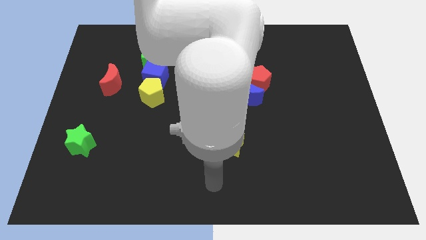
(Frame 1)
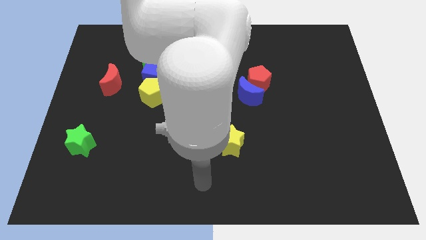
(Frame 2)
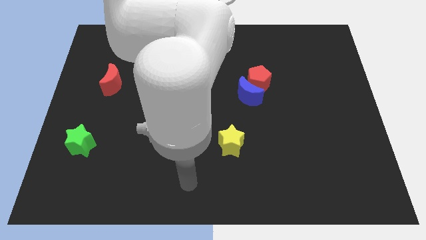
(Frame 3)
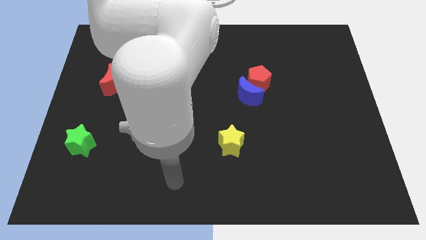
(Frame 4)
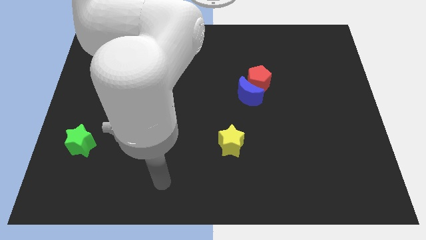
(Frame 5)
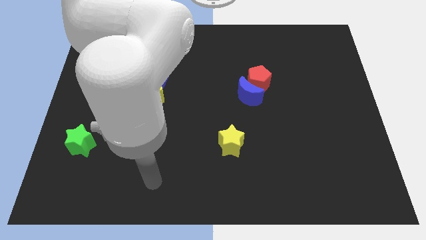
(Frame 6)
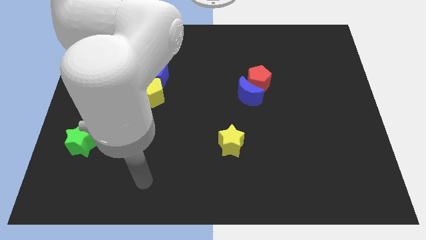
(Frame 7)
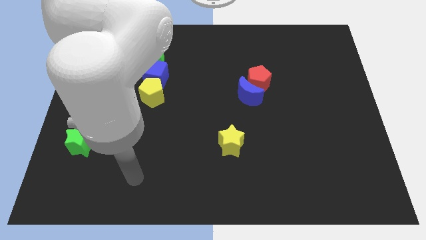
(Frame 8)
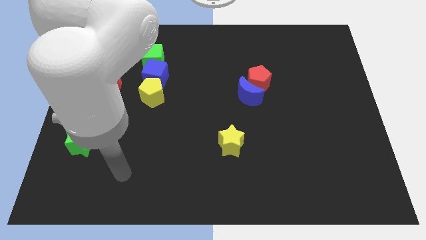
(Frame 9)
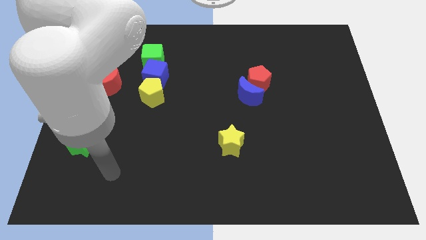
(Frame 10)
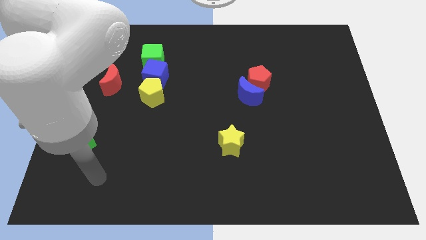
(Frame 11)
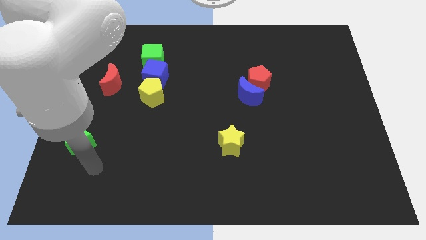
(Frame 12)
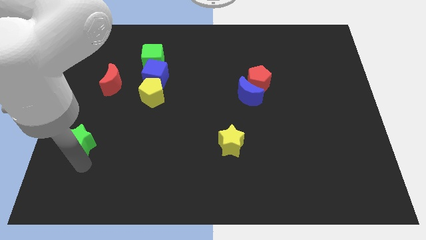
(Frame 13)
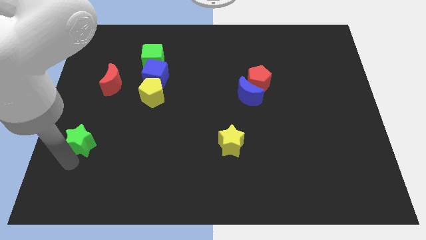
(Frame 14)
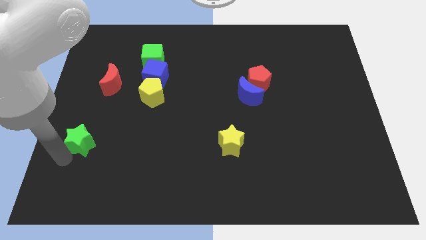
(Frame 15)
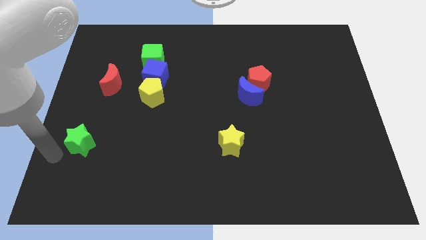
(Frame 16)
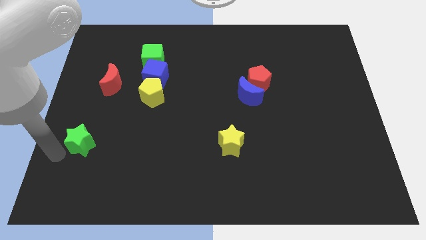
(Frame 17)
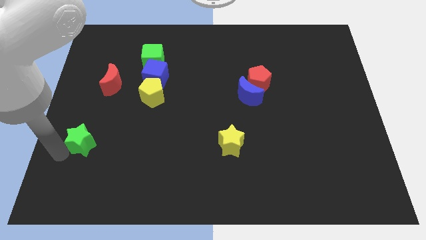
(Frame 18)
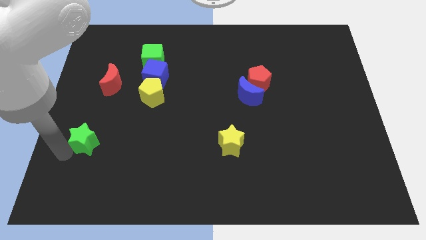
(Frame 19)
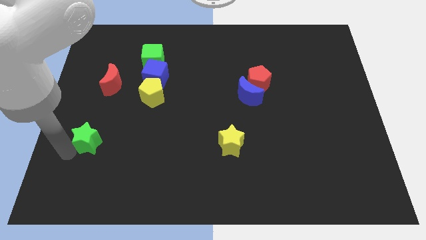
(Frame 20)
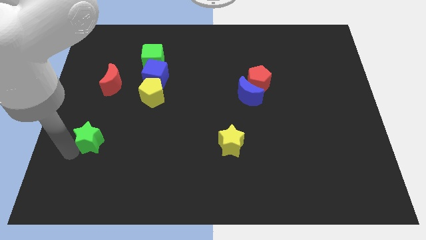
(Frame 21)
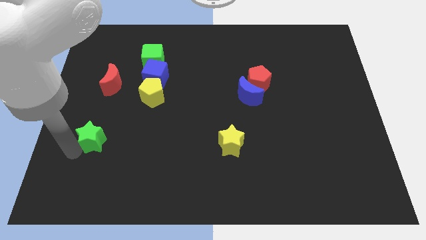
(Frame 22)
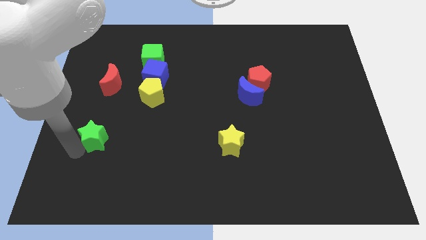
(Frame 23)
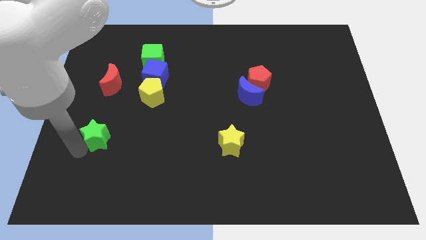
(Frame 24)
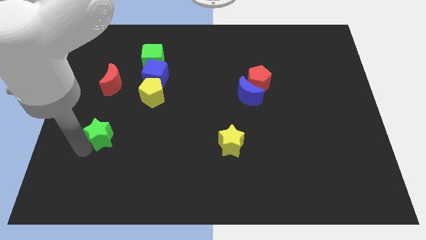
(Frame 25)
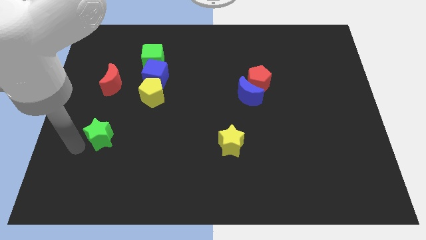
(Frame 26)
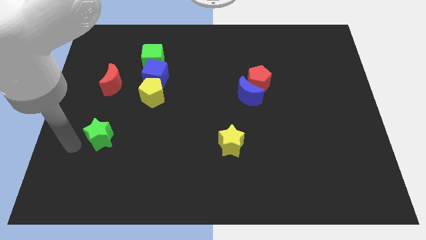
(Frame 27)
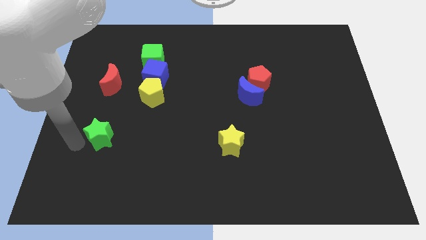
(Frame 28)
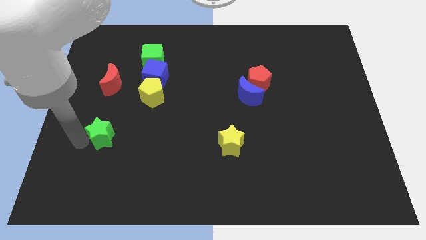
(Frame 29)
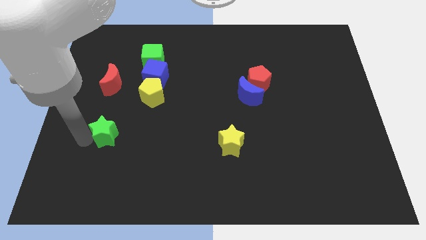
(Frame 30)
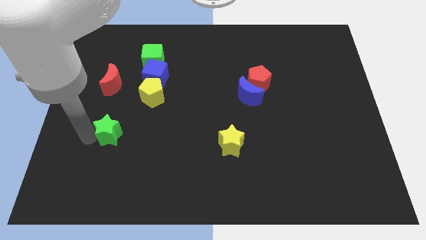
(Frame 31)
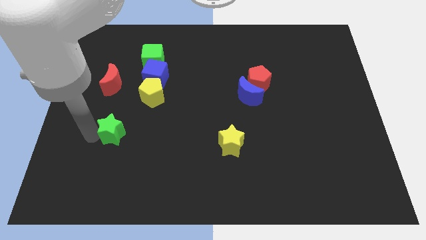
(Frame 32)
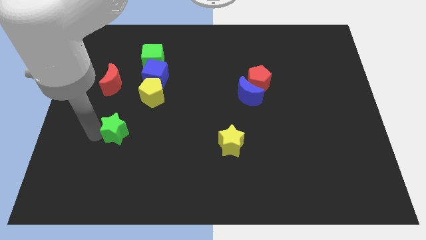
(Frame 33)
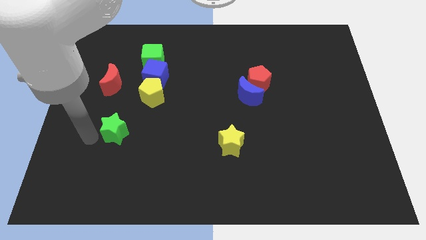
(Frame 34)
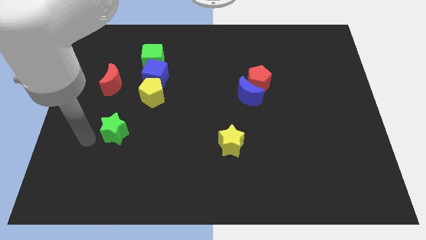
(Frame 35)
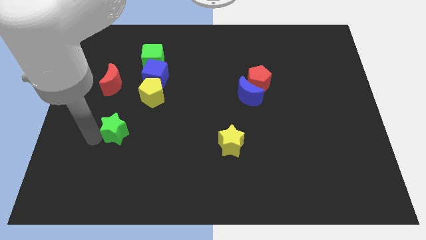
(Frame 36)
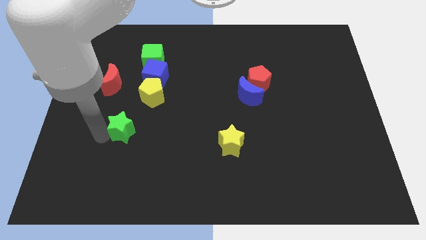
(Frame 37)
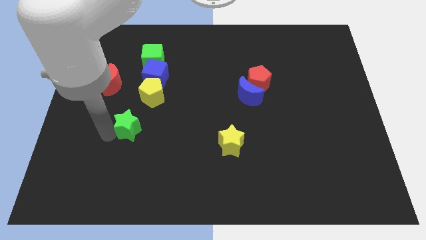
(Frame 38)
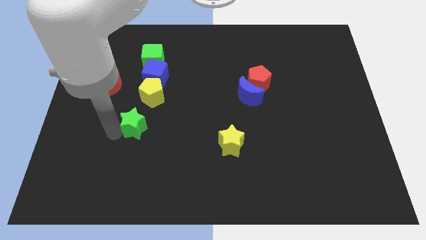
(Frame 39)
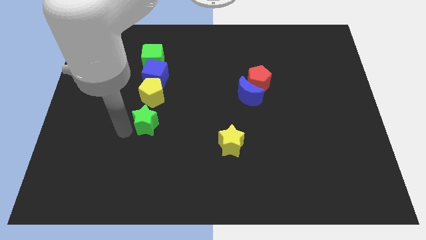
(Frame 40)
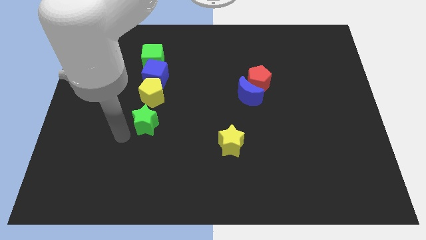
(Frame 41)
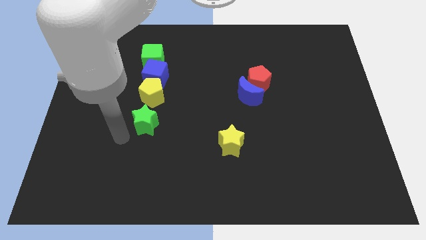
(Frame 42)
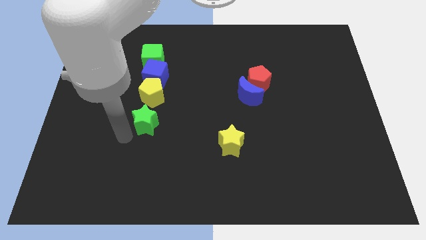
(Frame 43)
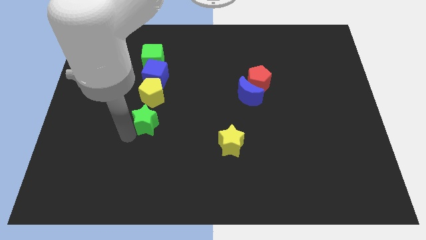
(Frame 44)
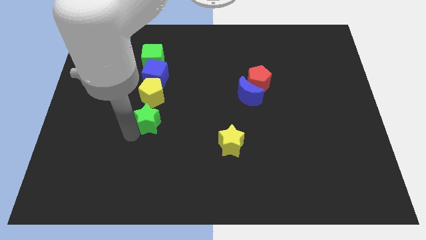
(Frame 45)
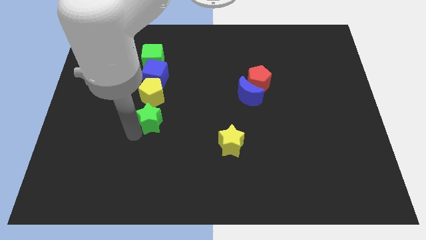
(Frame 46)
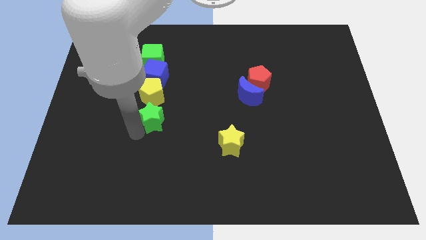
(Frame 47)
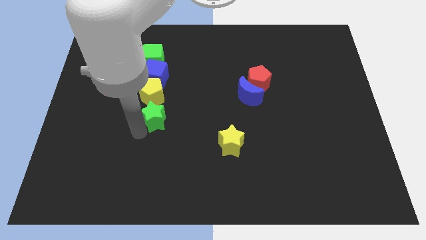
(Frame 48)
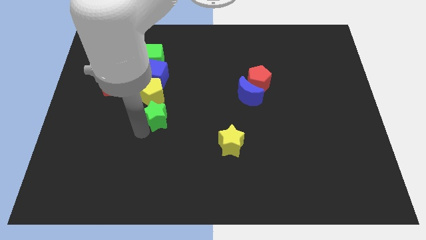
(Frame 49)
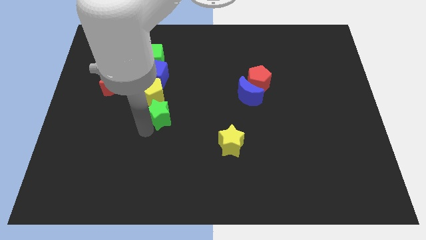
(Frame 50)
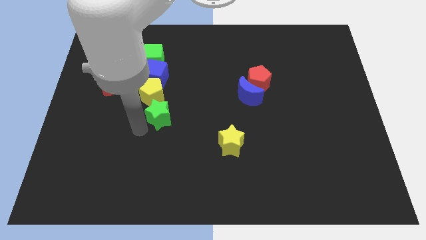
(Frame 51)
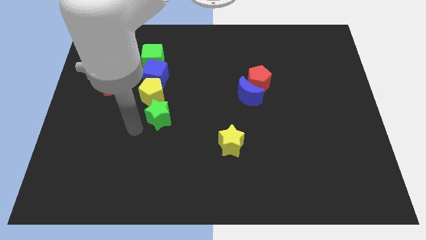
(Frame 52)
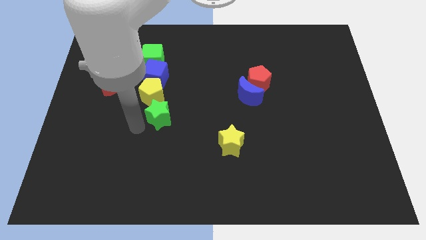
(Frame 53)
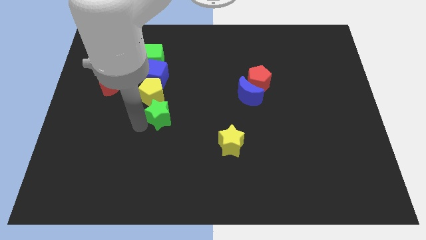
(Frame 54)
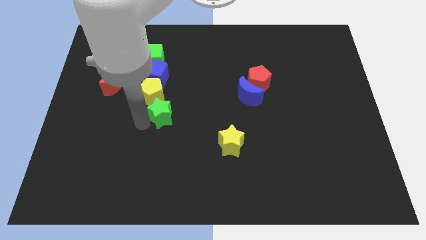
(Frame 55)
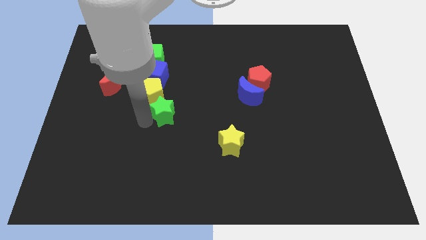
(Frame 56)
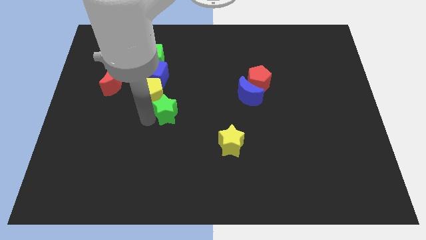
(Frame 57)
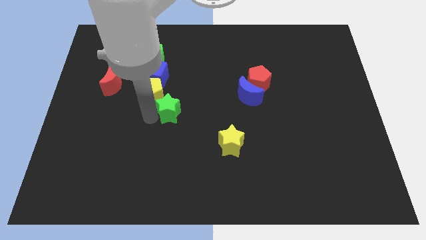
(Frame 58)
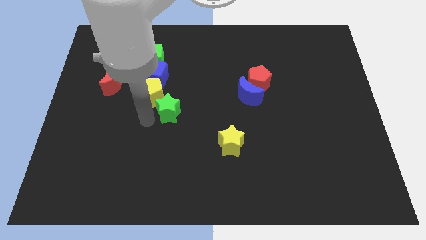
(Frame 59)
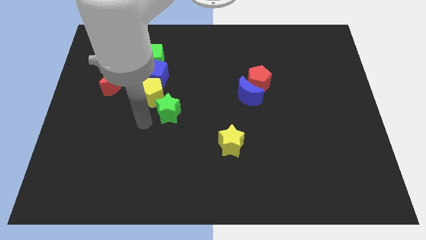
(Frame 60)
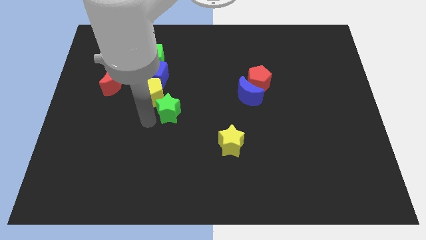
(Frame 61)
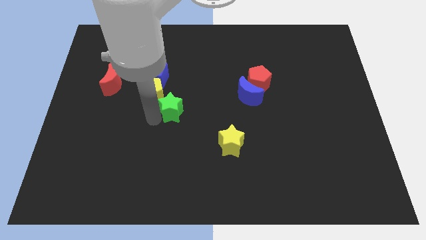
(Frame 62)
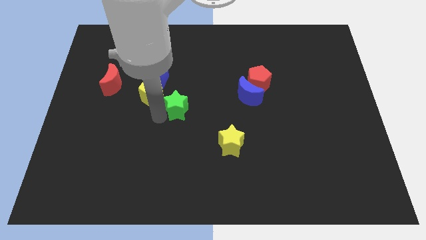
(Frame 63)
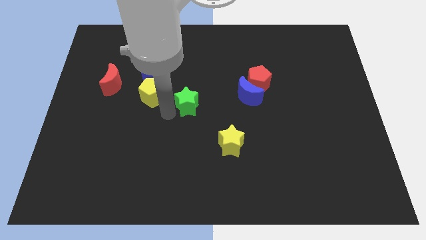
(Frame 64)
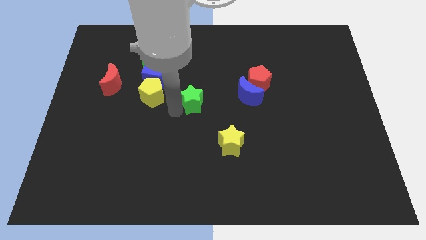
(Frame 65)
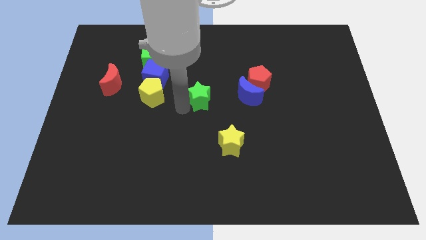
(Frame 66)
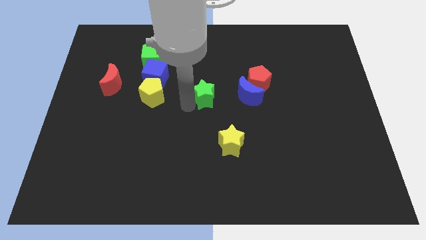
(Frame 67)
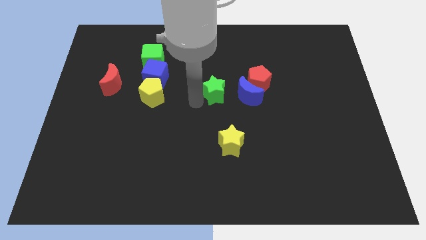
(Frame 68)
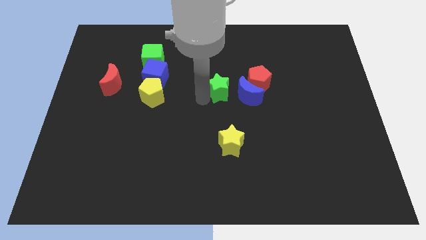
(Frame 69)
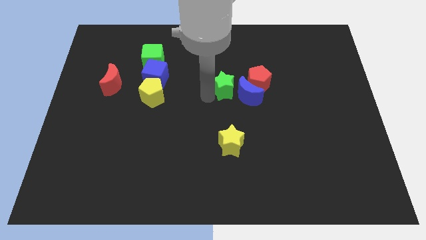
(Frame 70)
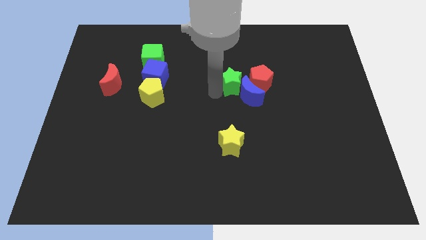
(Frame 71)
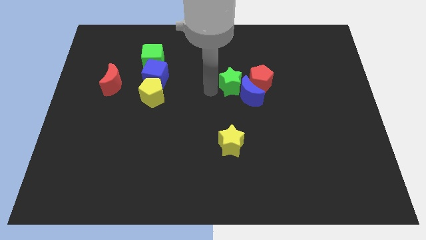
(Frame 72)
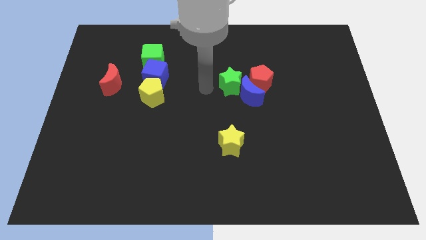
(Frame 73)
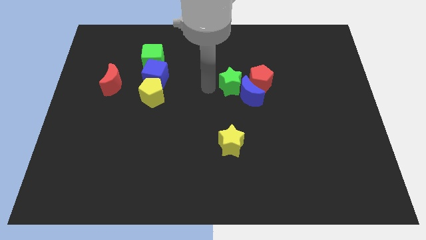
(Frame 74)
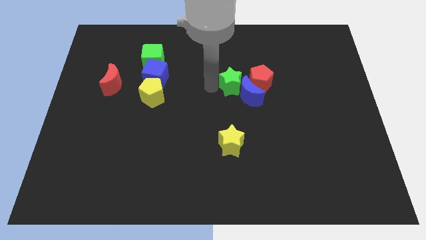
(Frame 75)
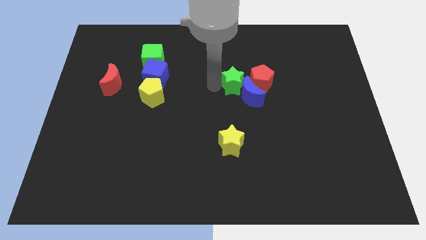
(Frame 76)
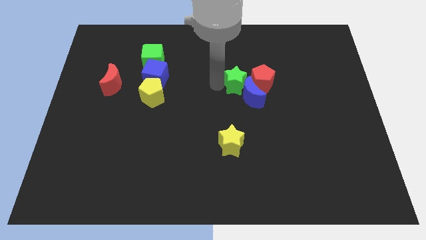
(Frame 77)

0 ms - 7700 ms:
move the green star close to the red pentagon
